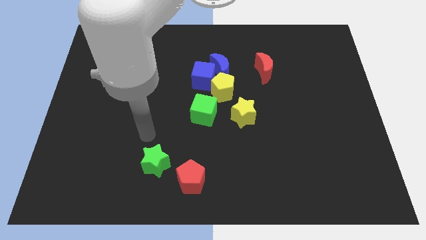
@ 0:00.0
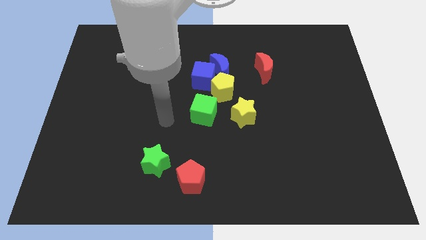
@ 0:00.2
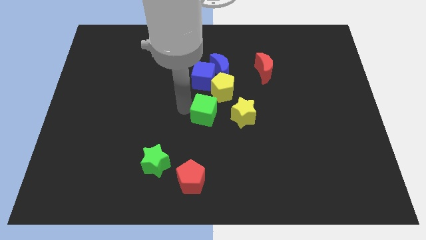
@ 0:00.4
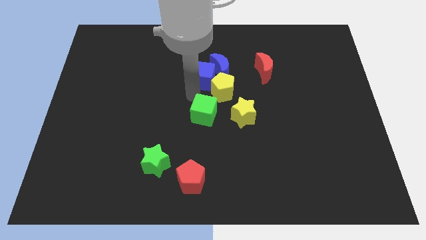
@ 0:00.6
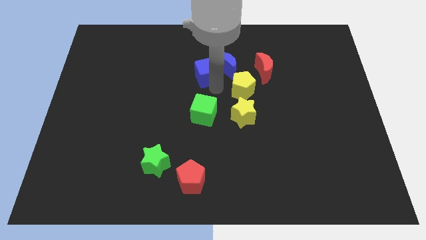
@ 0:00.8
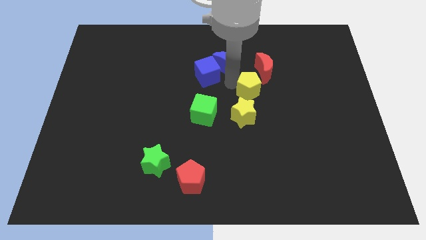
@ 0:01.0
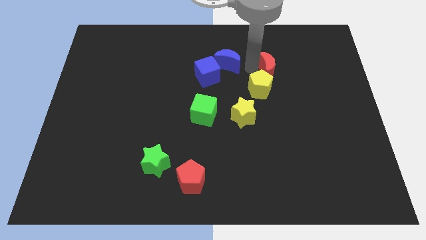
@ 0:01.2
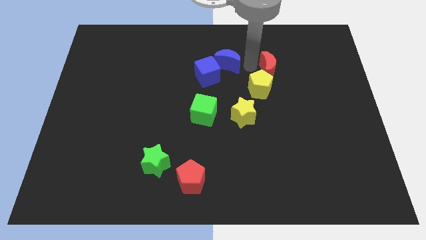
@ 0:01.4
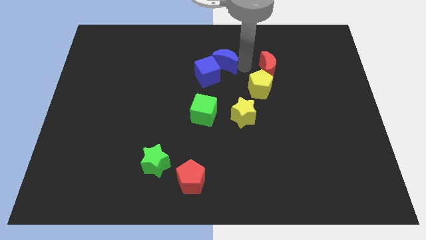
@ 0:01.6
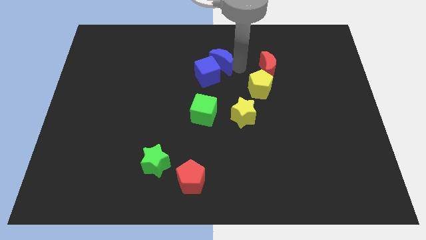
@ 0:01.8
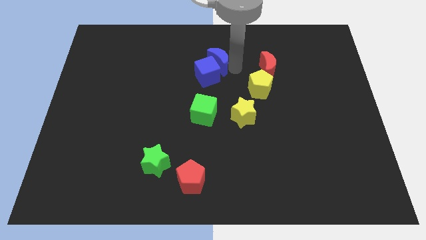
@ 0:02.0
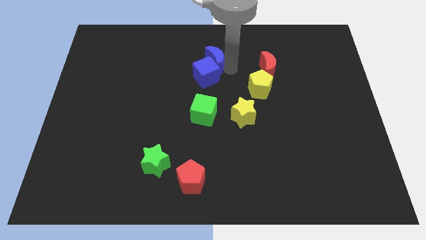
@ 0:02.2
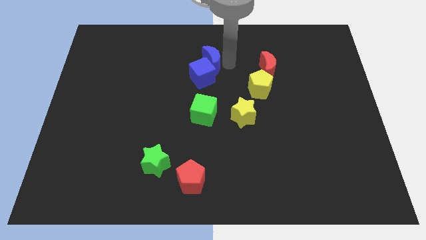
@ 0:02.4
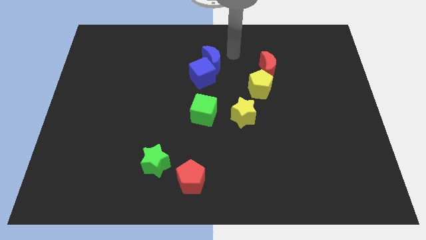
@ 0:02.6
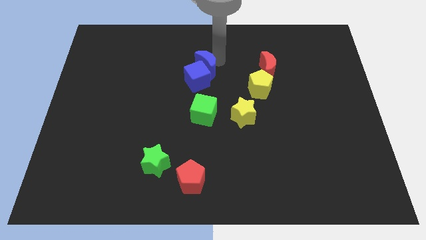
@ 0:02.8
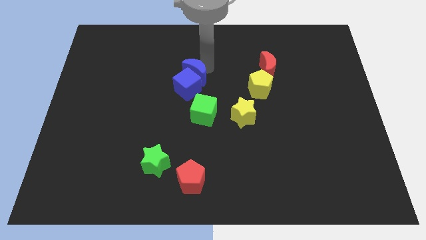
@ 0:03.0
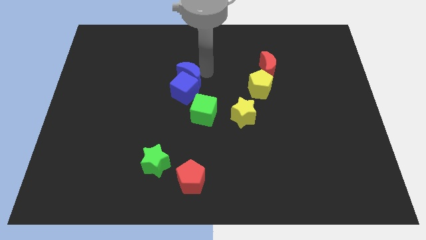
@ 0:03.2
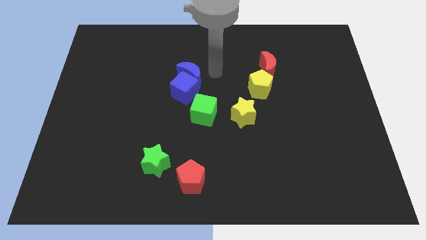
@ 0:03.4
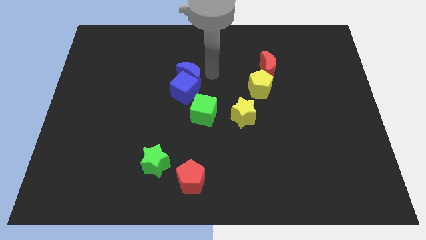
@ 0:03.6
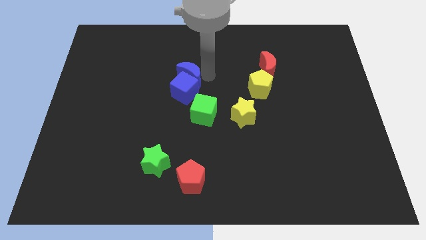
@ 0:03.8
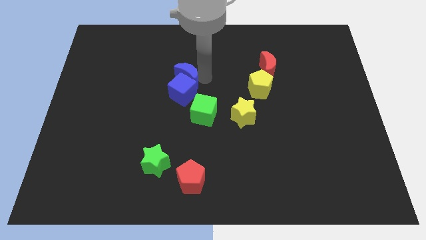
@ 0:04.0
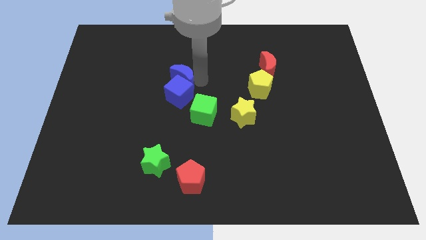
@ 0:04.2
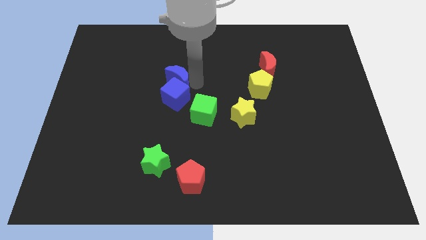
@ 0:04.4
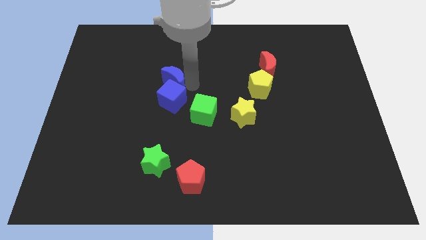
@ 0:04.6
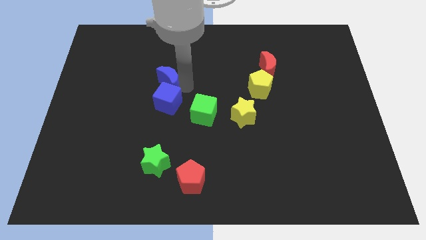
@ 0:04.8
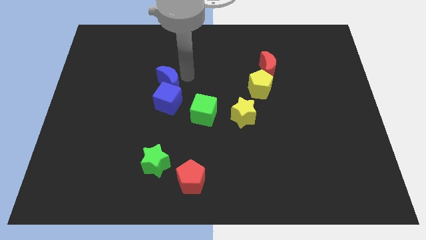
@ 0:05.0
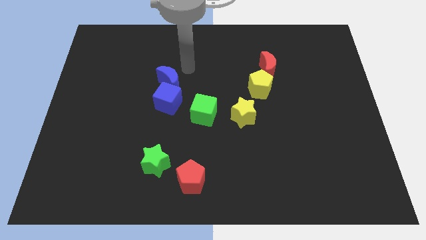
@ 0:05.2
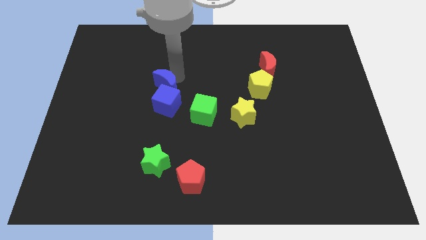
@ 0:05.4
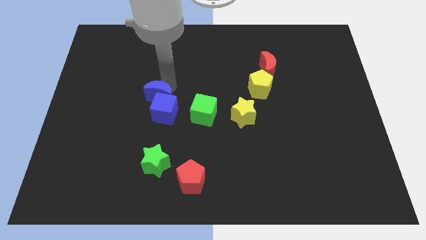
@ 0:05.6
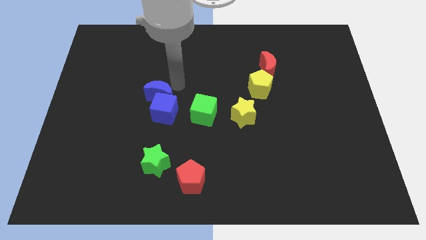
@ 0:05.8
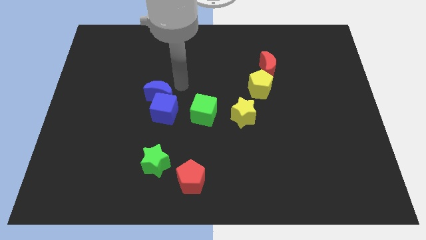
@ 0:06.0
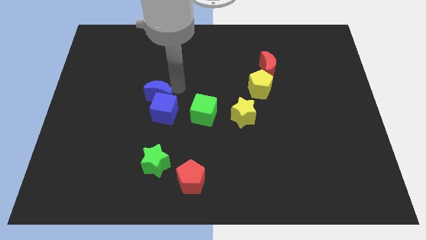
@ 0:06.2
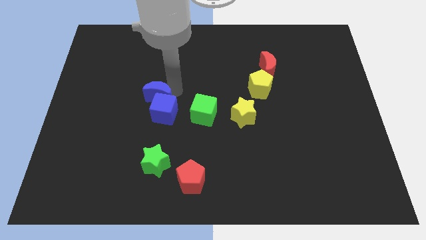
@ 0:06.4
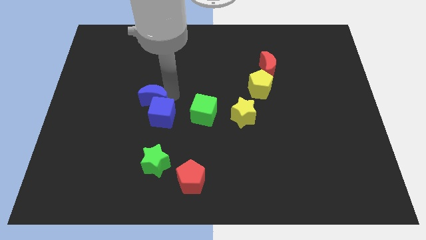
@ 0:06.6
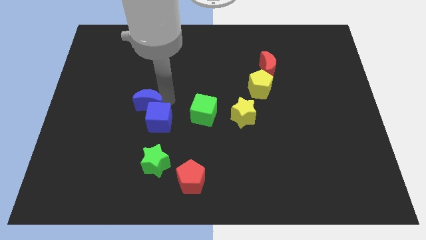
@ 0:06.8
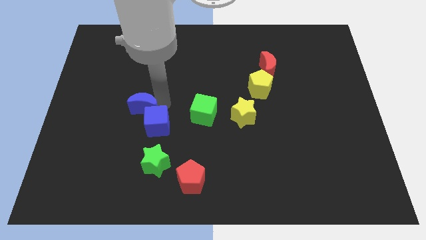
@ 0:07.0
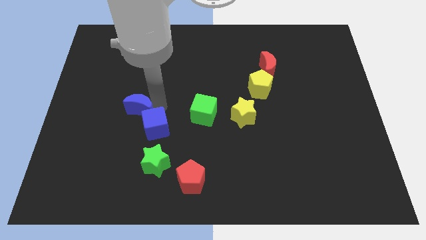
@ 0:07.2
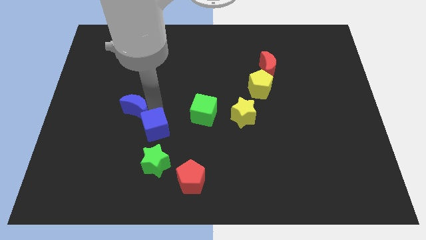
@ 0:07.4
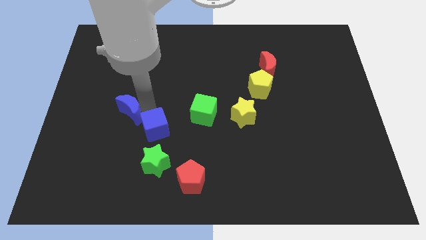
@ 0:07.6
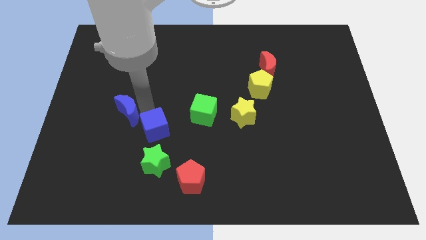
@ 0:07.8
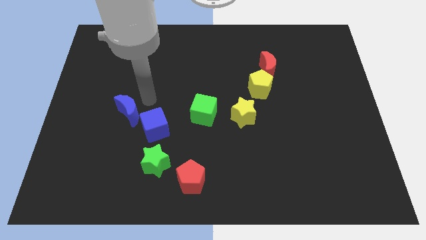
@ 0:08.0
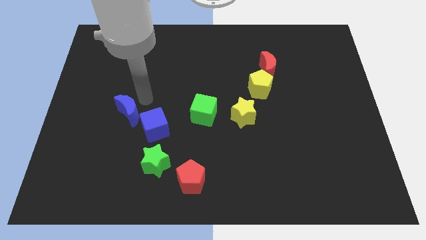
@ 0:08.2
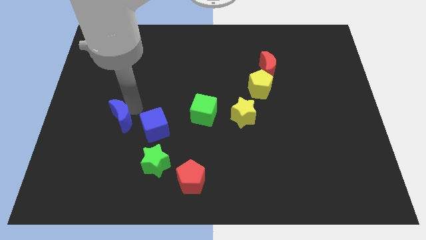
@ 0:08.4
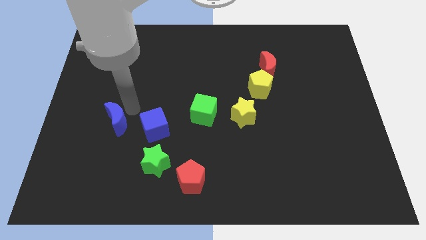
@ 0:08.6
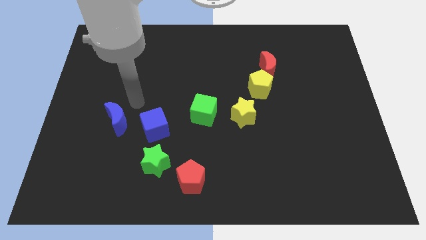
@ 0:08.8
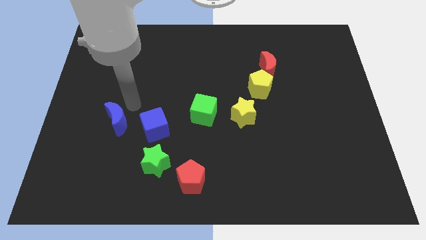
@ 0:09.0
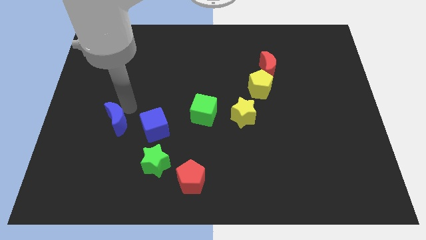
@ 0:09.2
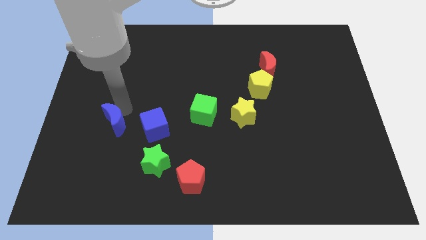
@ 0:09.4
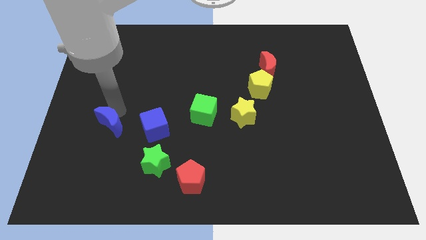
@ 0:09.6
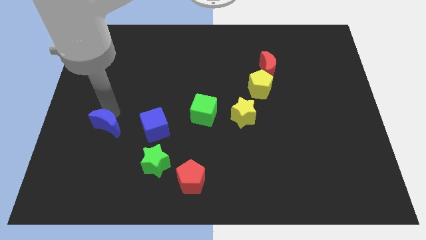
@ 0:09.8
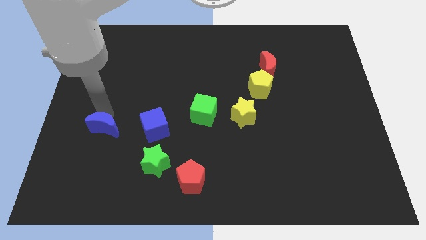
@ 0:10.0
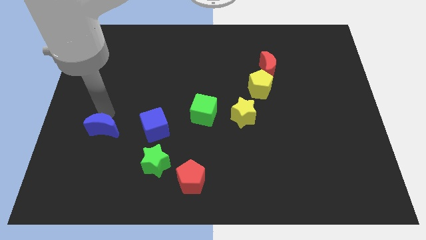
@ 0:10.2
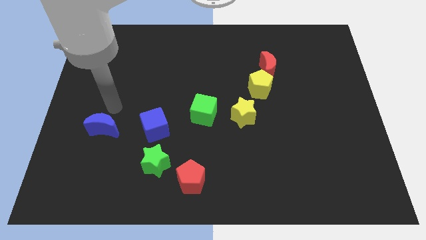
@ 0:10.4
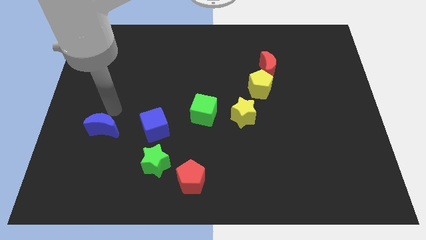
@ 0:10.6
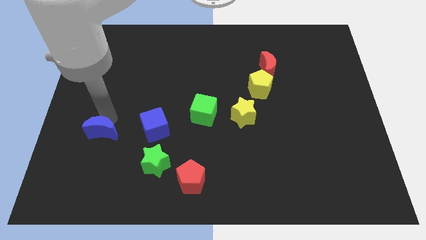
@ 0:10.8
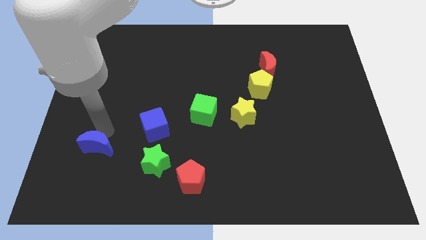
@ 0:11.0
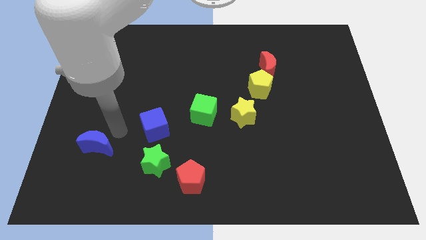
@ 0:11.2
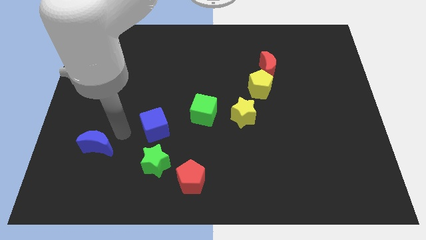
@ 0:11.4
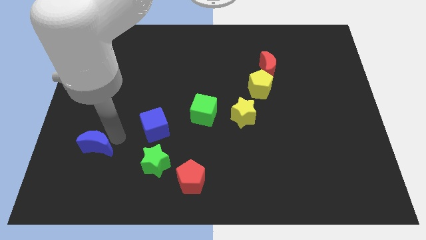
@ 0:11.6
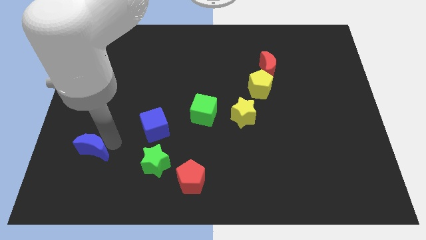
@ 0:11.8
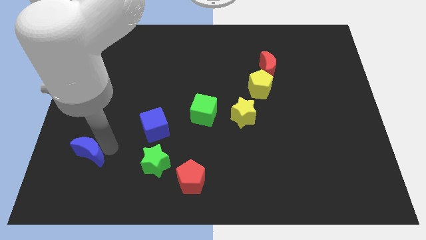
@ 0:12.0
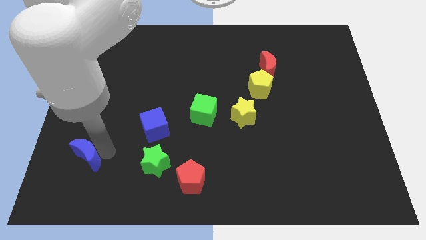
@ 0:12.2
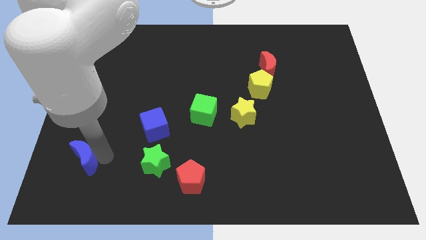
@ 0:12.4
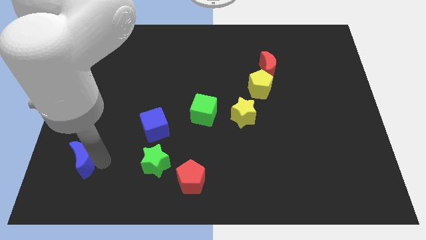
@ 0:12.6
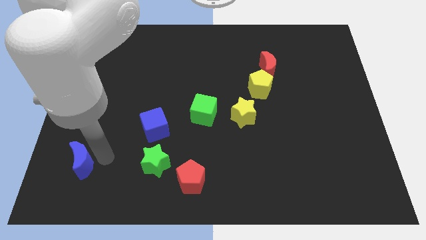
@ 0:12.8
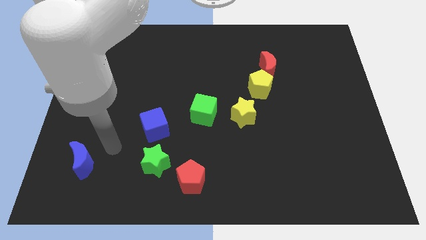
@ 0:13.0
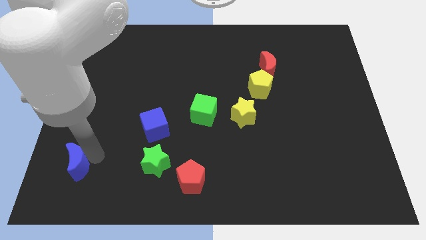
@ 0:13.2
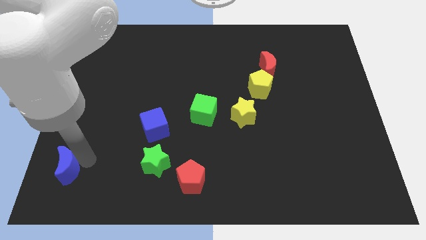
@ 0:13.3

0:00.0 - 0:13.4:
put the blue moon to the bottom left corner
